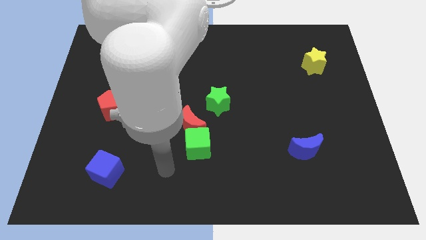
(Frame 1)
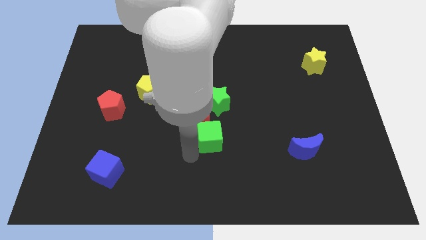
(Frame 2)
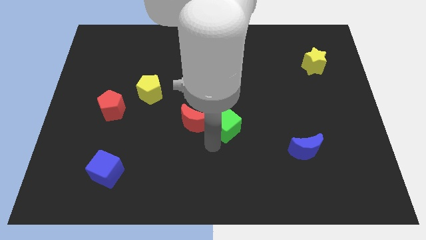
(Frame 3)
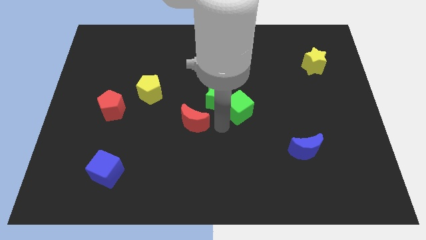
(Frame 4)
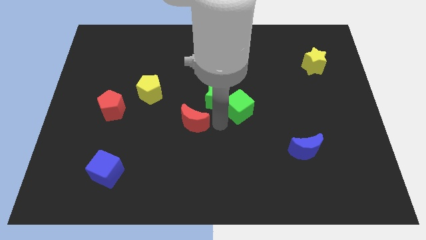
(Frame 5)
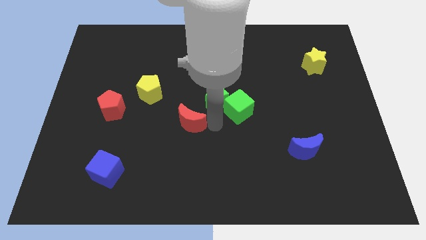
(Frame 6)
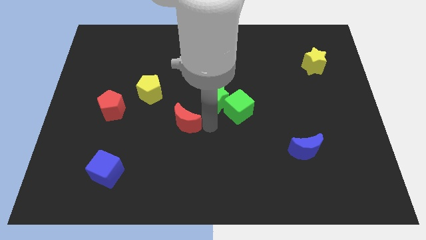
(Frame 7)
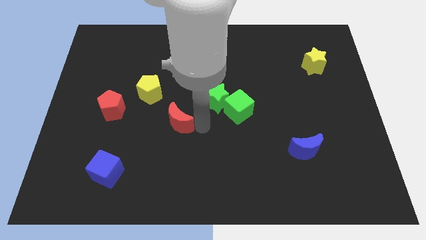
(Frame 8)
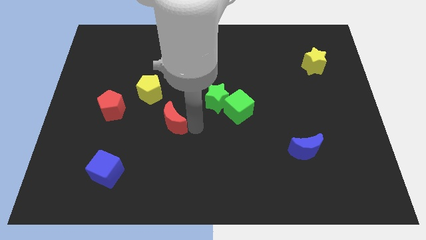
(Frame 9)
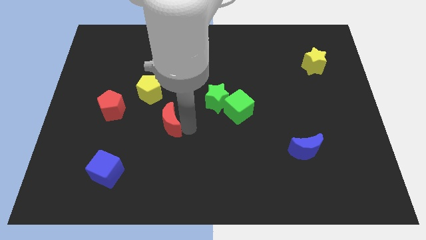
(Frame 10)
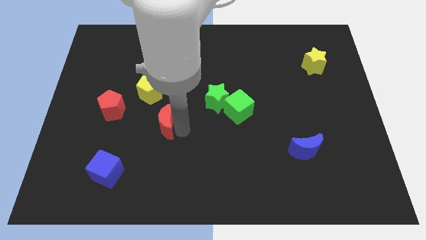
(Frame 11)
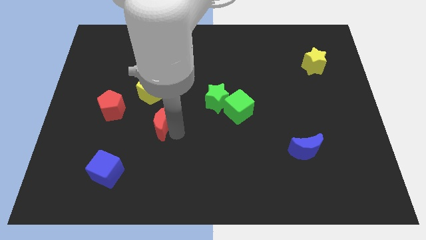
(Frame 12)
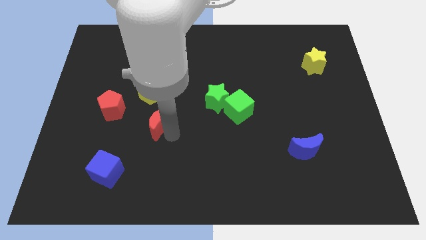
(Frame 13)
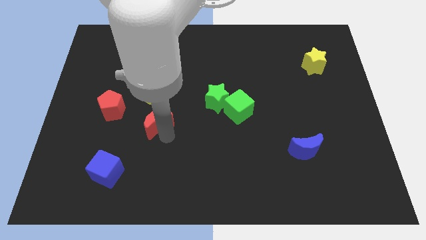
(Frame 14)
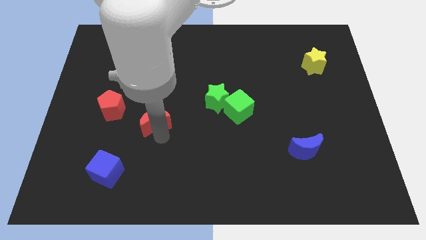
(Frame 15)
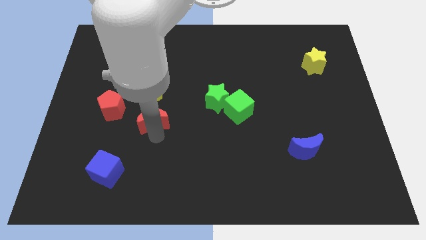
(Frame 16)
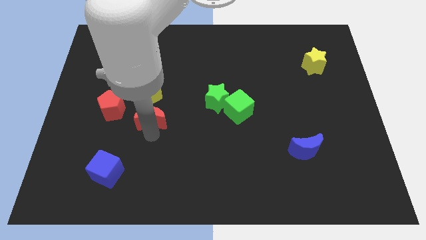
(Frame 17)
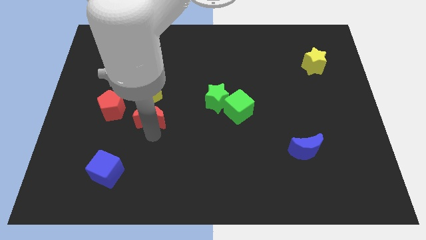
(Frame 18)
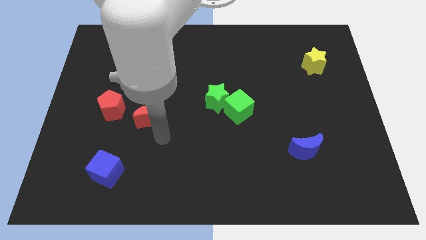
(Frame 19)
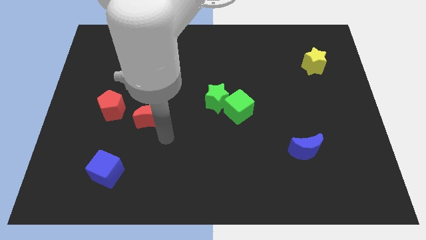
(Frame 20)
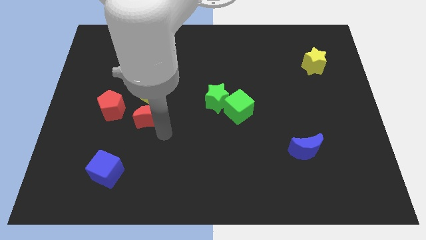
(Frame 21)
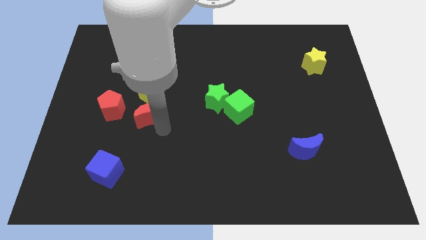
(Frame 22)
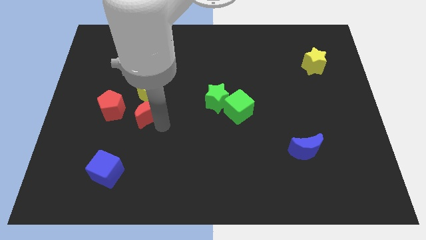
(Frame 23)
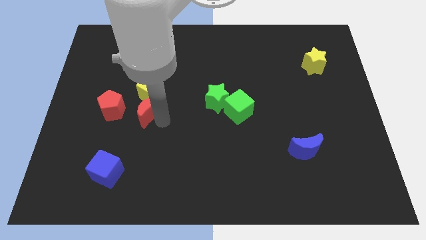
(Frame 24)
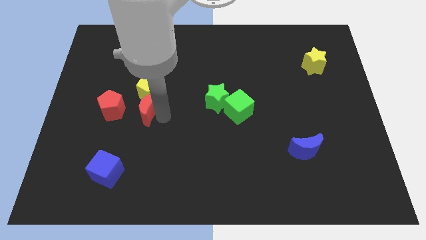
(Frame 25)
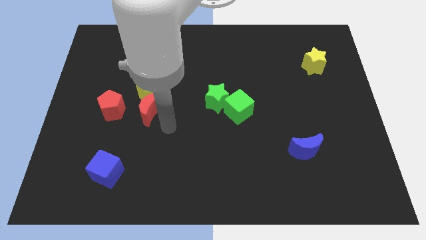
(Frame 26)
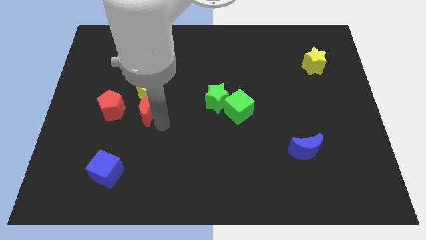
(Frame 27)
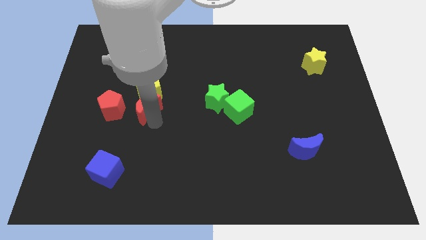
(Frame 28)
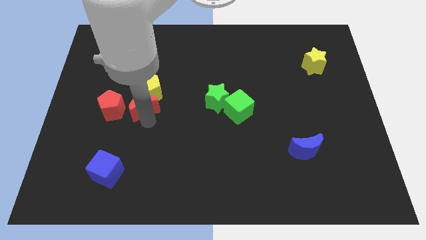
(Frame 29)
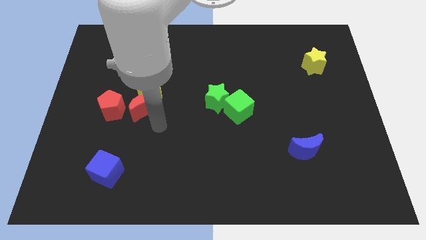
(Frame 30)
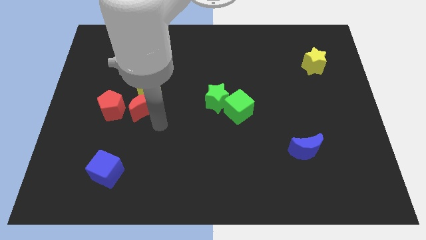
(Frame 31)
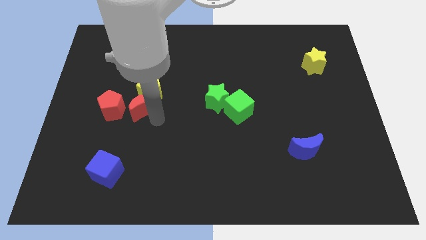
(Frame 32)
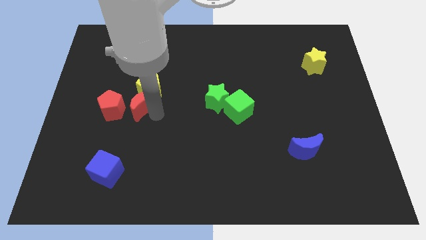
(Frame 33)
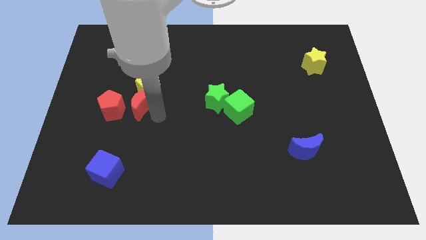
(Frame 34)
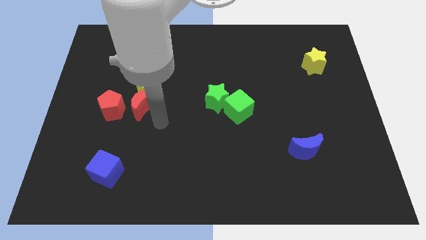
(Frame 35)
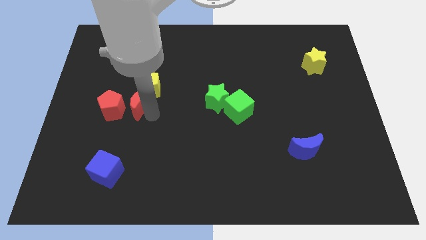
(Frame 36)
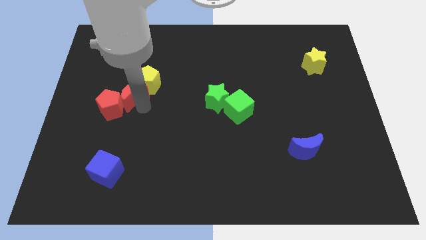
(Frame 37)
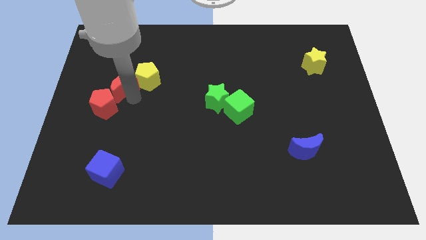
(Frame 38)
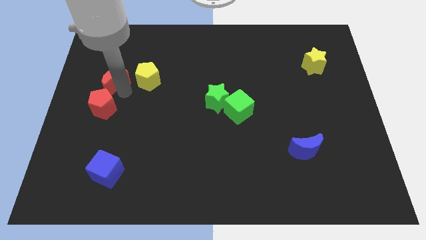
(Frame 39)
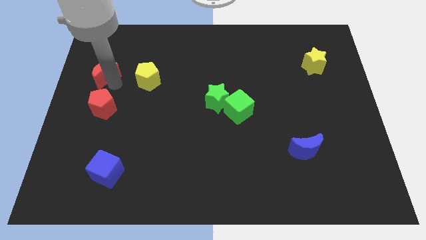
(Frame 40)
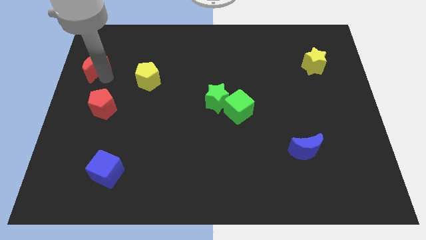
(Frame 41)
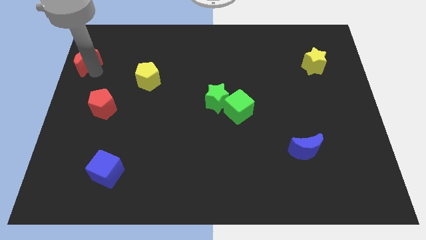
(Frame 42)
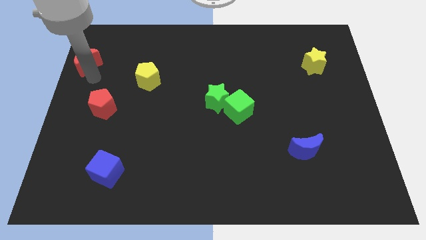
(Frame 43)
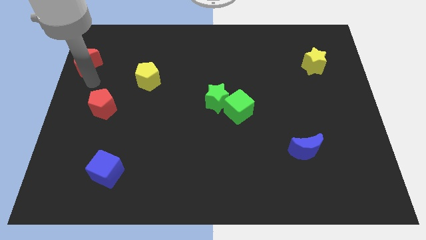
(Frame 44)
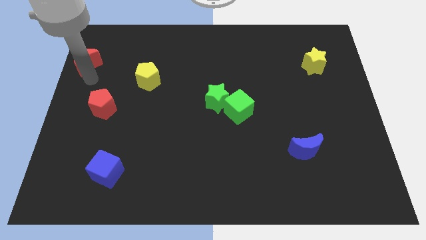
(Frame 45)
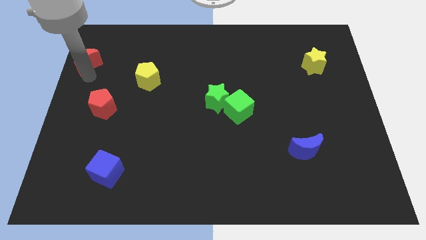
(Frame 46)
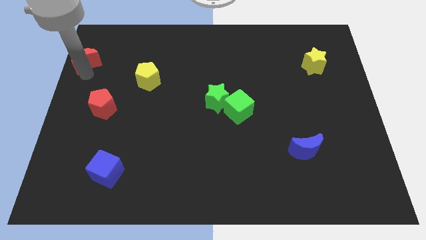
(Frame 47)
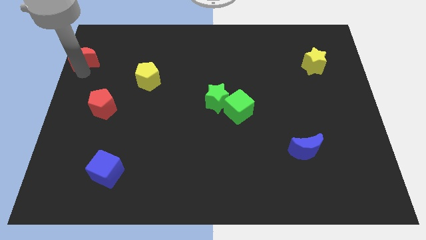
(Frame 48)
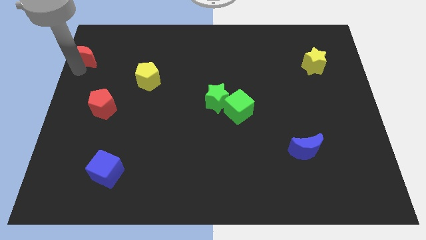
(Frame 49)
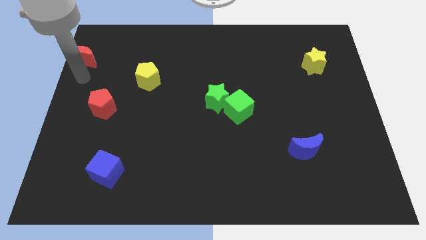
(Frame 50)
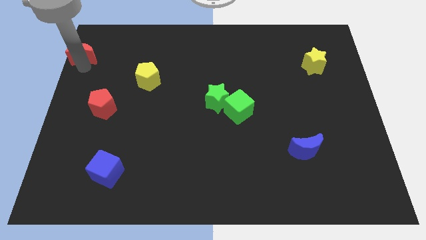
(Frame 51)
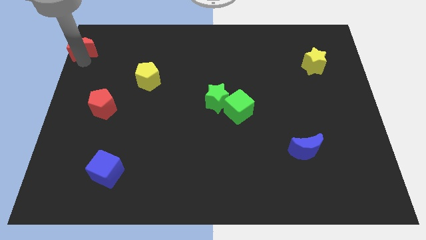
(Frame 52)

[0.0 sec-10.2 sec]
slide the red moon to the upper left corner
